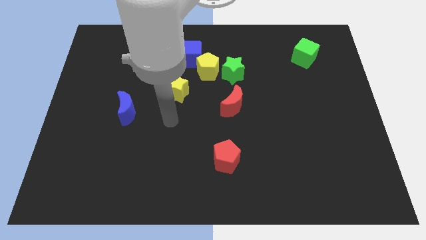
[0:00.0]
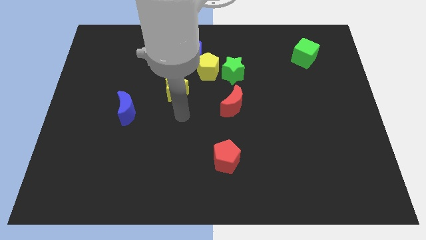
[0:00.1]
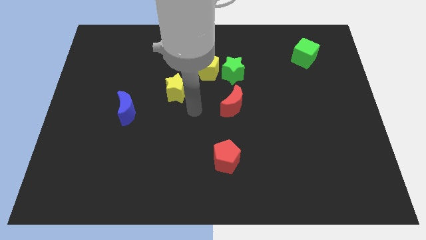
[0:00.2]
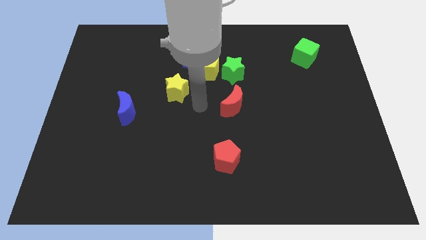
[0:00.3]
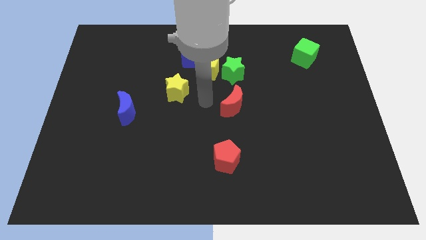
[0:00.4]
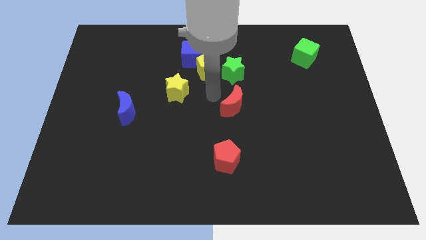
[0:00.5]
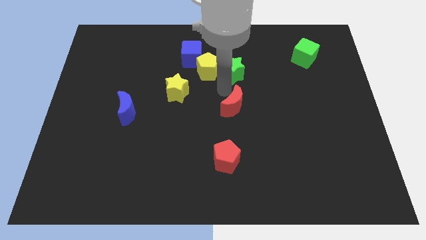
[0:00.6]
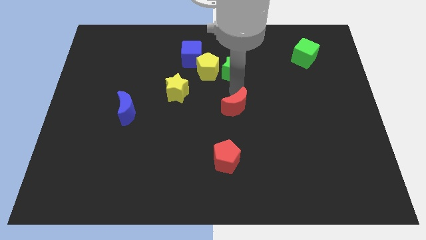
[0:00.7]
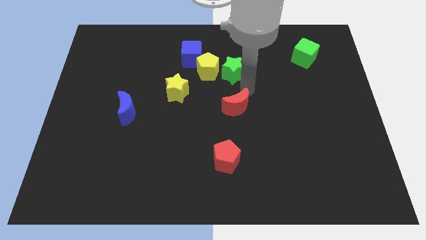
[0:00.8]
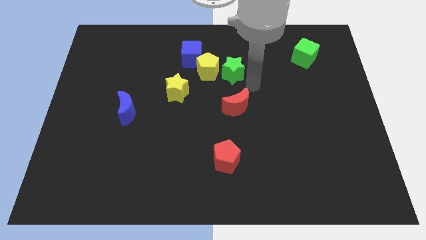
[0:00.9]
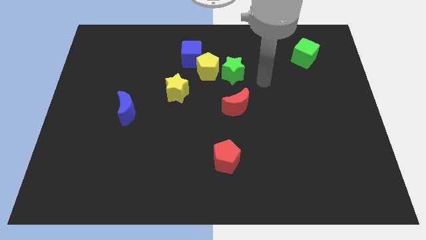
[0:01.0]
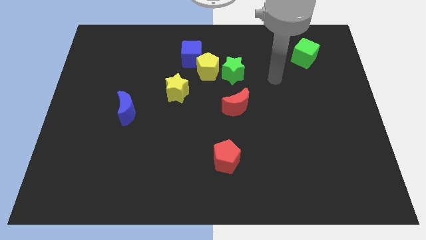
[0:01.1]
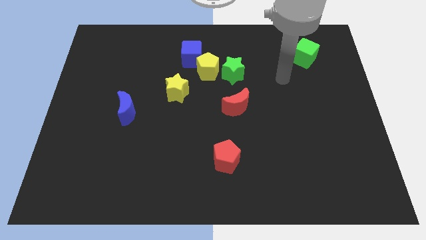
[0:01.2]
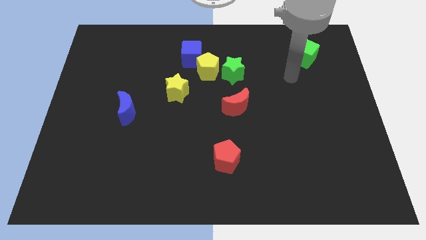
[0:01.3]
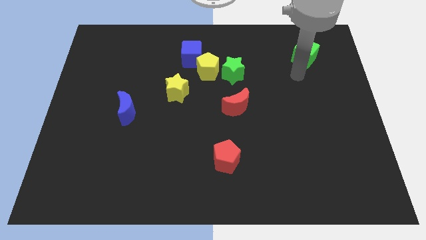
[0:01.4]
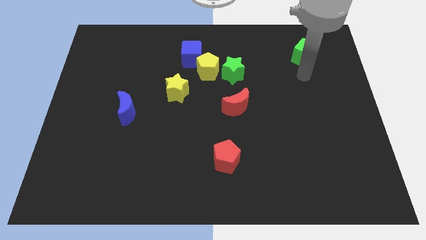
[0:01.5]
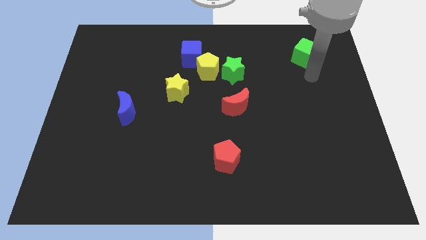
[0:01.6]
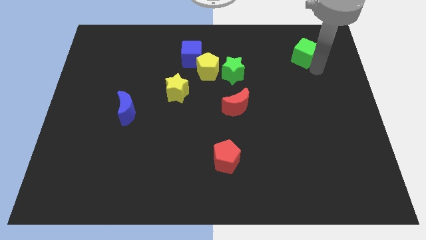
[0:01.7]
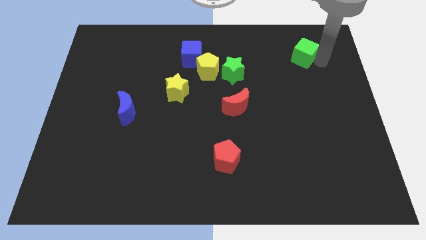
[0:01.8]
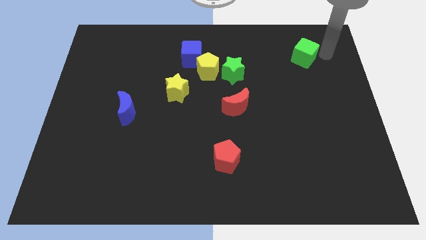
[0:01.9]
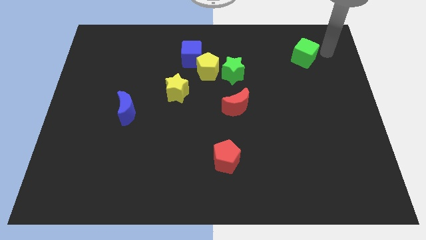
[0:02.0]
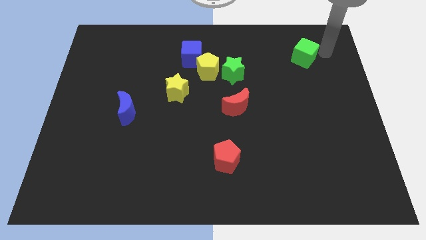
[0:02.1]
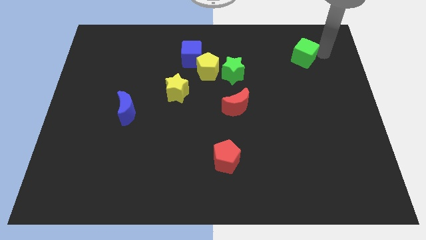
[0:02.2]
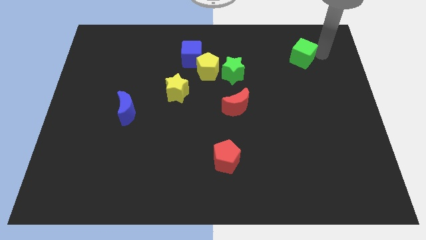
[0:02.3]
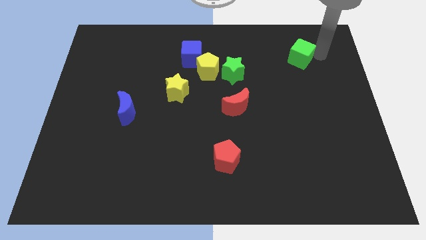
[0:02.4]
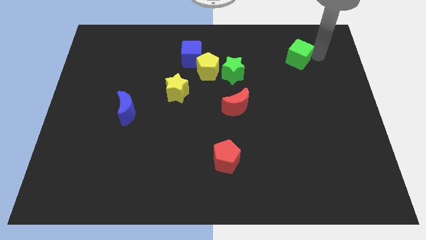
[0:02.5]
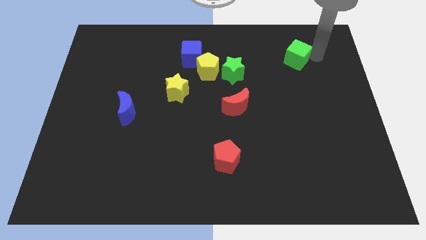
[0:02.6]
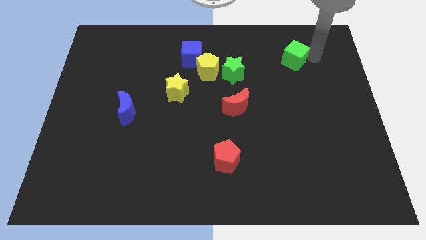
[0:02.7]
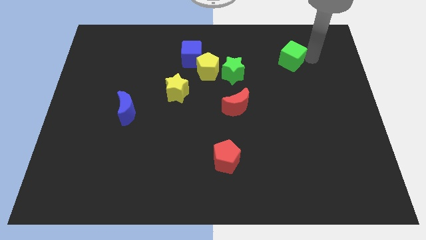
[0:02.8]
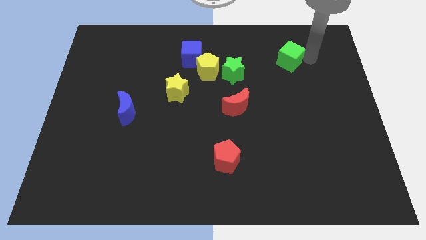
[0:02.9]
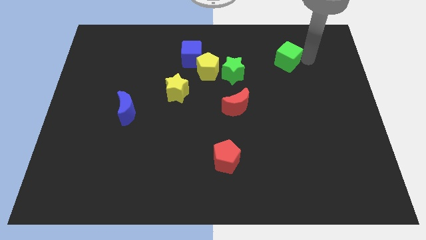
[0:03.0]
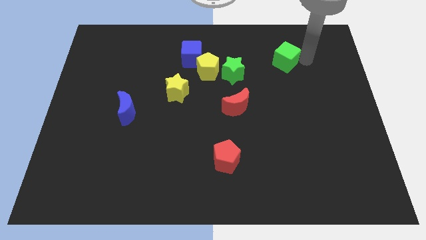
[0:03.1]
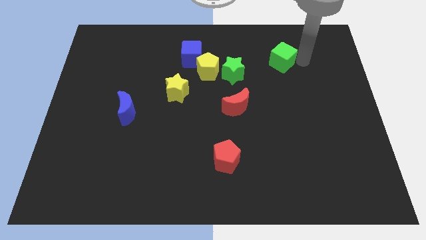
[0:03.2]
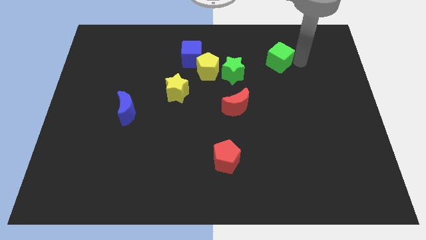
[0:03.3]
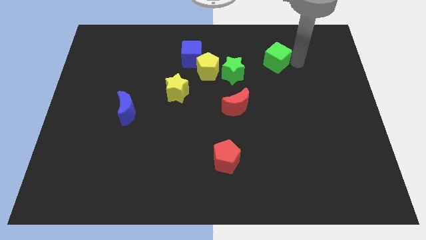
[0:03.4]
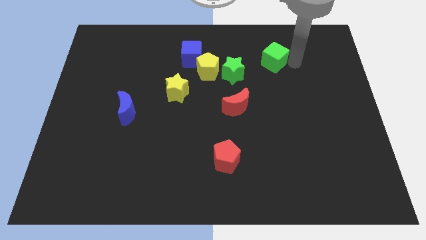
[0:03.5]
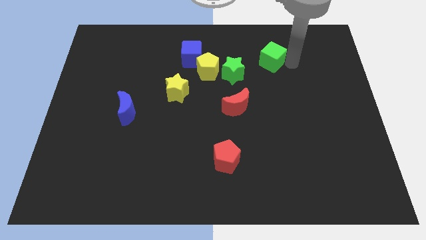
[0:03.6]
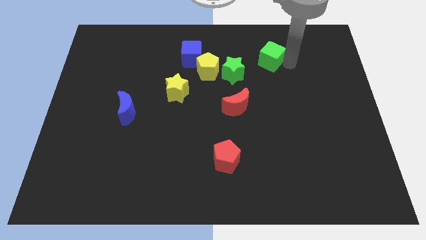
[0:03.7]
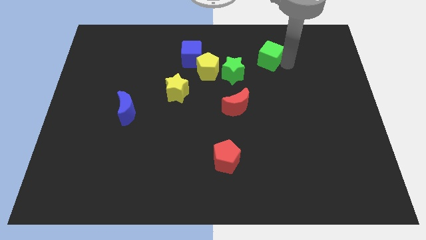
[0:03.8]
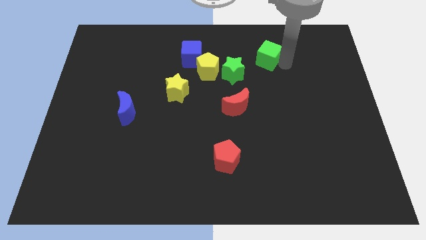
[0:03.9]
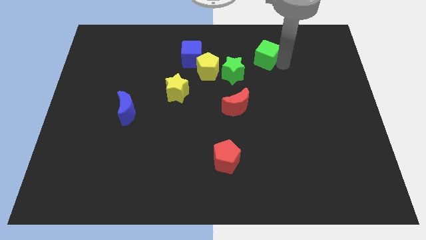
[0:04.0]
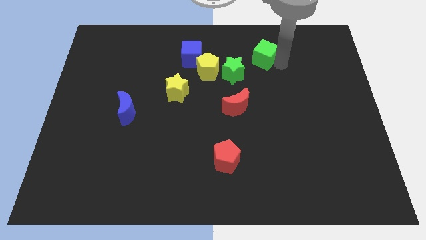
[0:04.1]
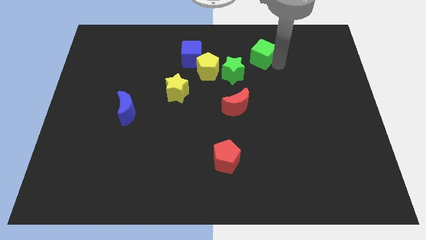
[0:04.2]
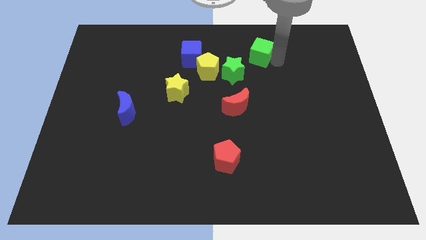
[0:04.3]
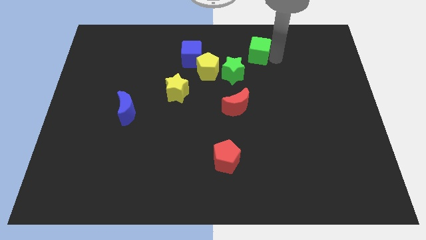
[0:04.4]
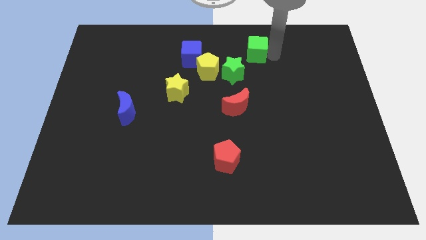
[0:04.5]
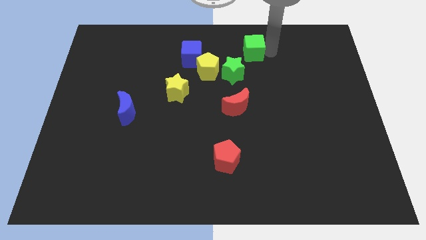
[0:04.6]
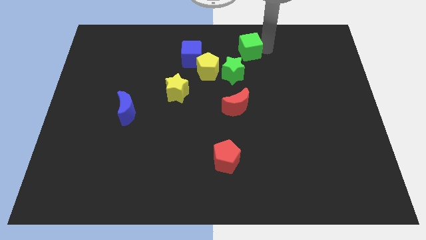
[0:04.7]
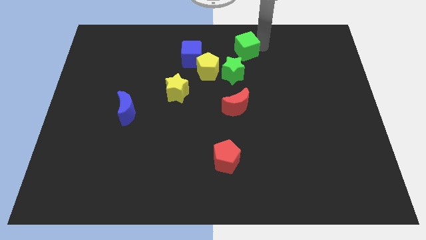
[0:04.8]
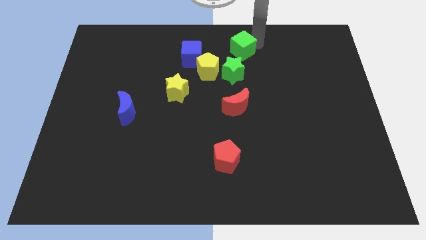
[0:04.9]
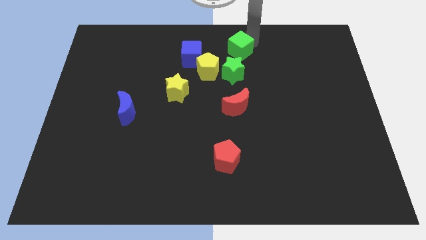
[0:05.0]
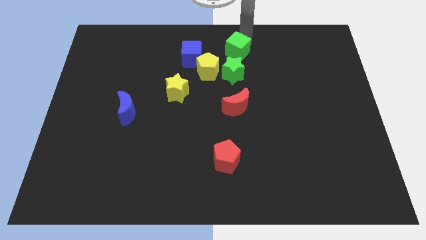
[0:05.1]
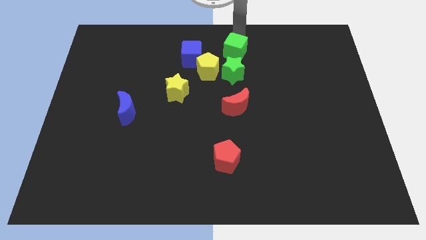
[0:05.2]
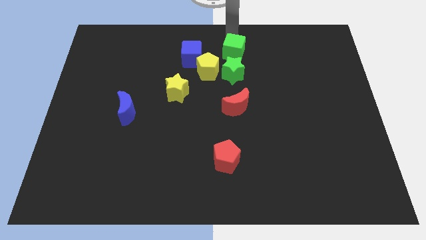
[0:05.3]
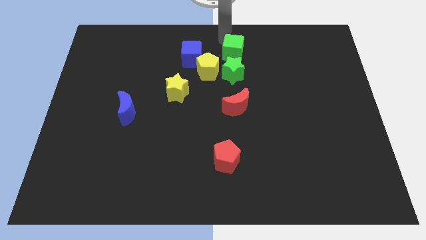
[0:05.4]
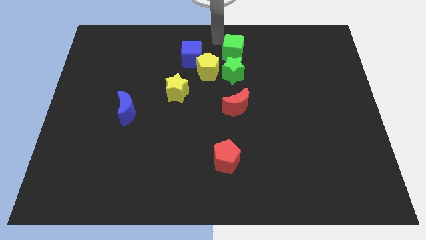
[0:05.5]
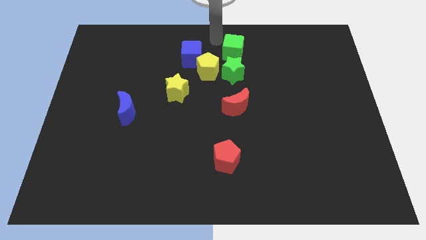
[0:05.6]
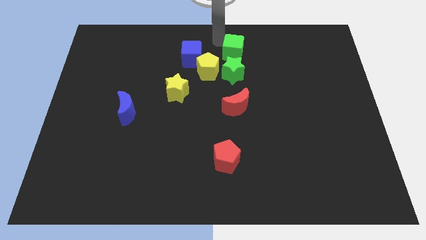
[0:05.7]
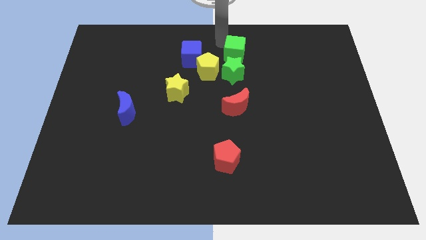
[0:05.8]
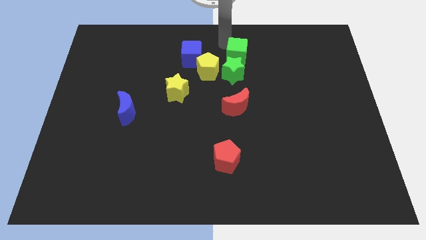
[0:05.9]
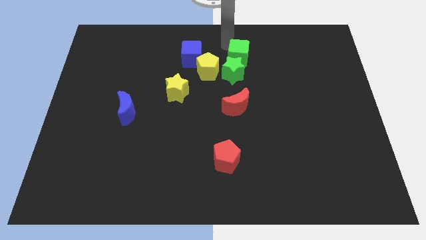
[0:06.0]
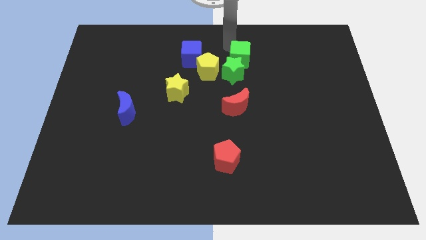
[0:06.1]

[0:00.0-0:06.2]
move the green cube next to the green star

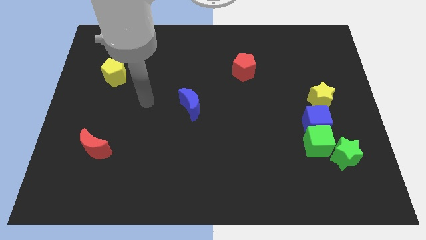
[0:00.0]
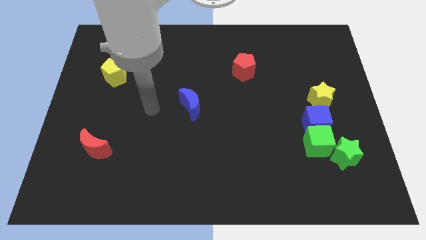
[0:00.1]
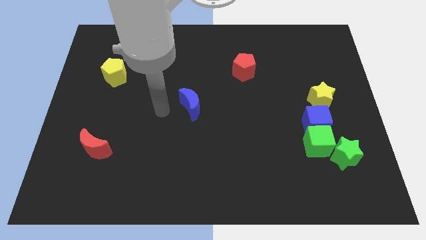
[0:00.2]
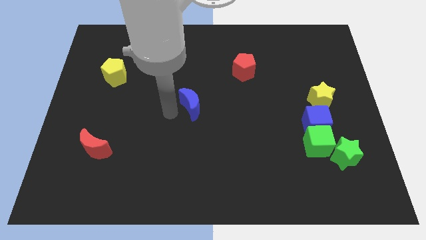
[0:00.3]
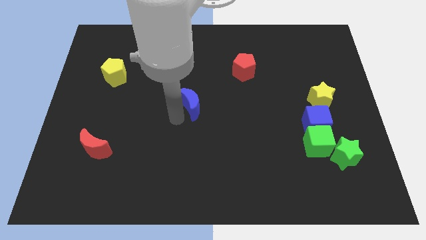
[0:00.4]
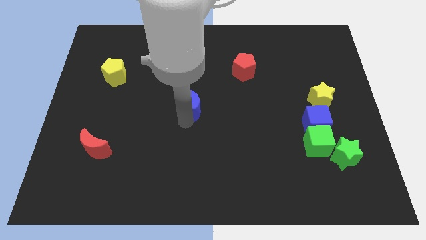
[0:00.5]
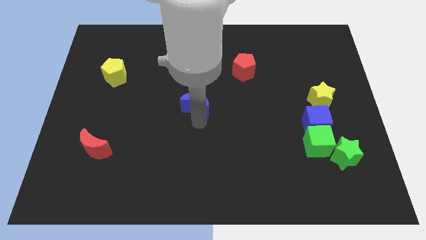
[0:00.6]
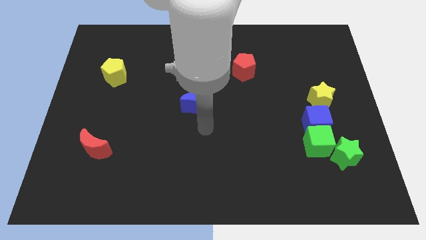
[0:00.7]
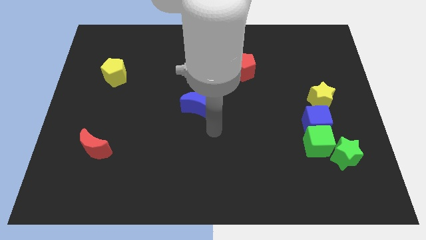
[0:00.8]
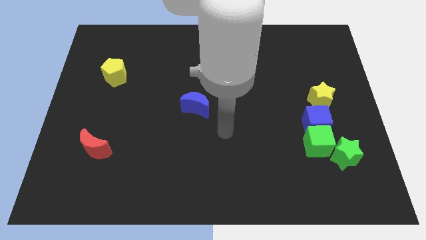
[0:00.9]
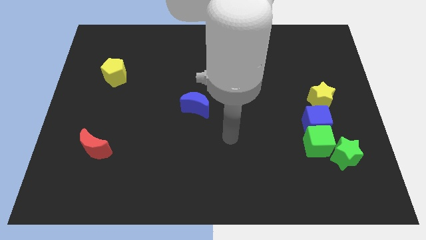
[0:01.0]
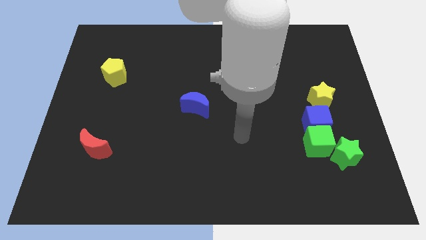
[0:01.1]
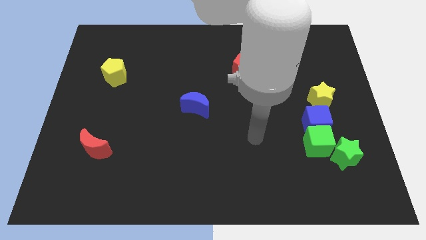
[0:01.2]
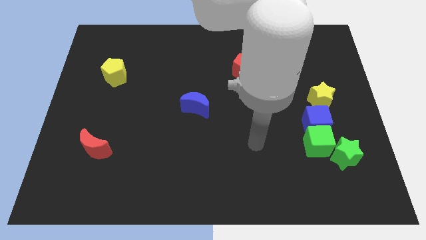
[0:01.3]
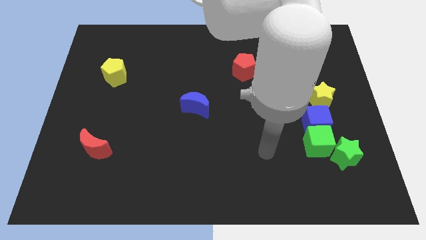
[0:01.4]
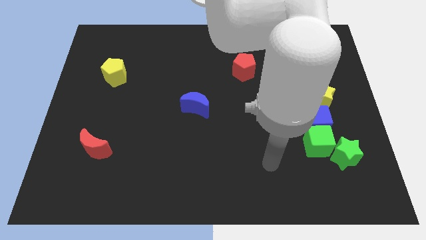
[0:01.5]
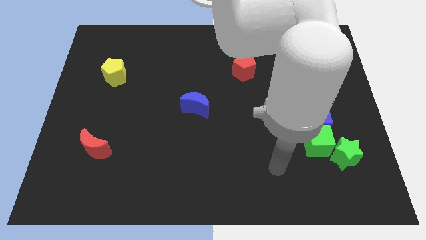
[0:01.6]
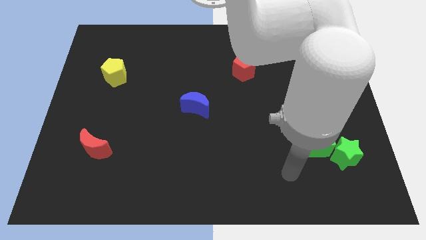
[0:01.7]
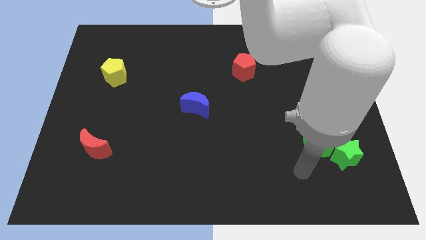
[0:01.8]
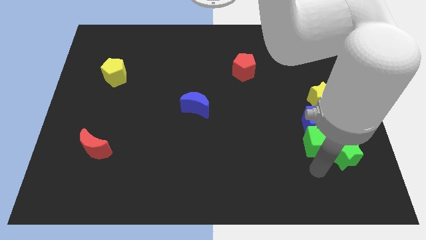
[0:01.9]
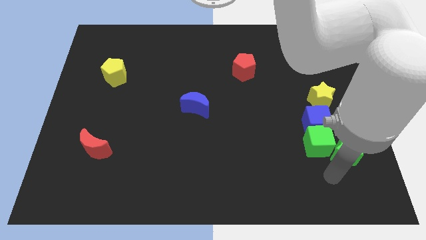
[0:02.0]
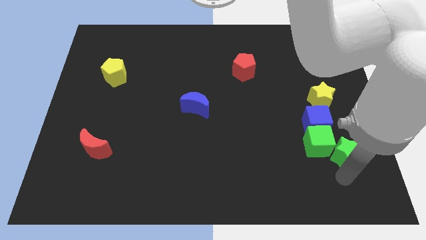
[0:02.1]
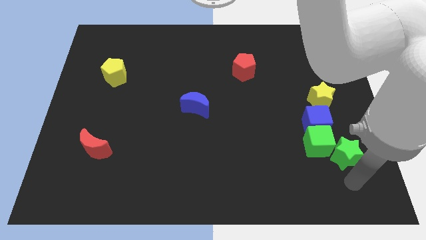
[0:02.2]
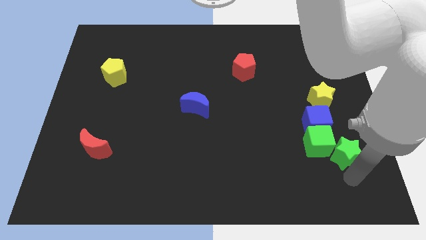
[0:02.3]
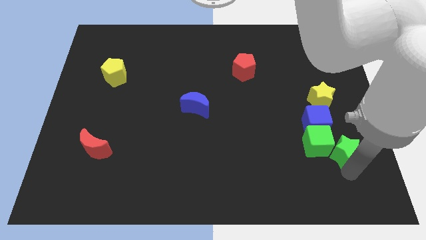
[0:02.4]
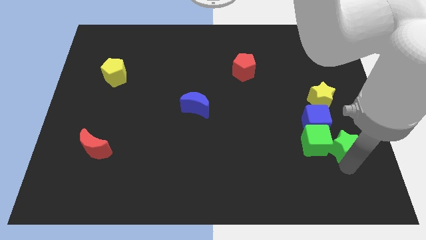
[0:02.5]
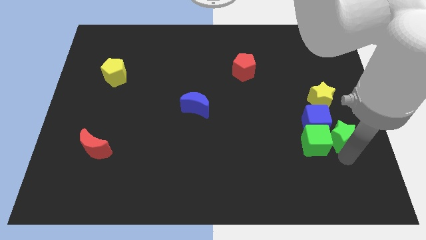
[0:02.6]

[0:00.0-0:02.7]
move the green star towards the blue cube
